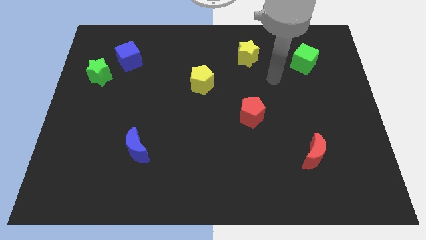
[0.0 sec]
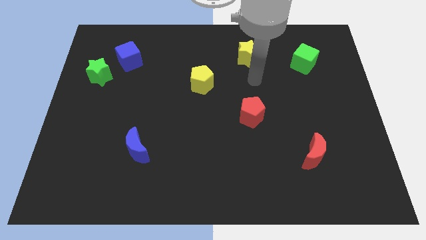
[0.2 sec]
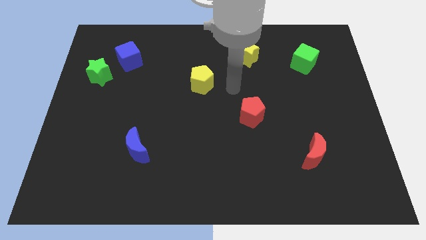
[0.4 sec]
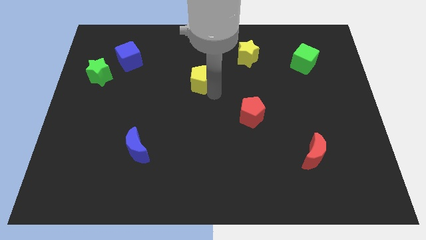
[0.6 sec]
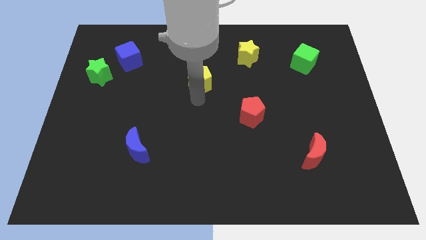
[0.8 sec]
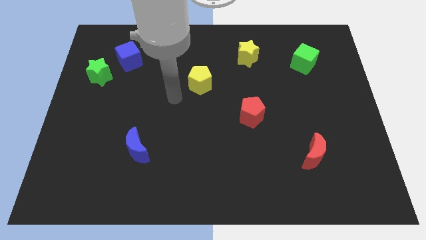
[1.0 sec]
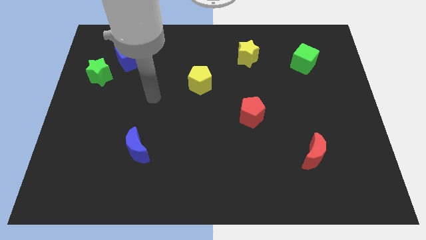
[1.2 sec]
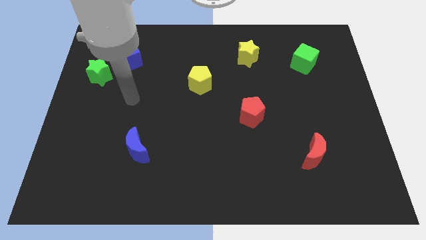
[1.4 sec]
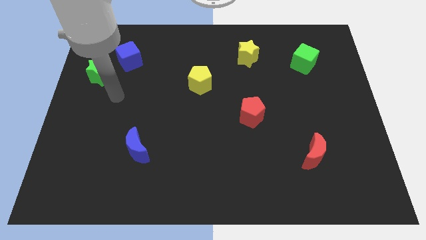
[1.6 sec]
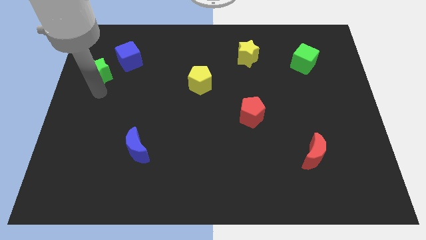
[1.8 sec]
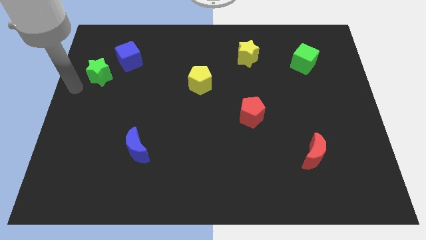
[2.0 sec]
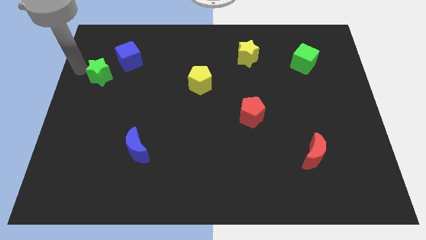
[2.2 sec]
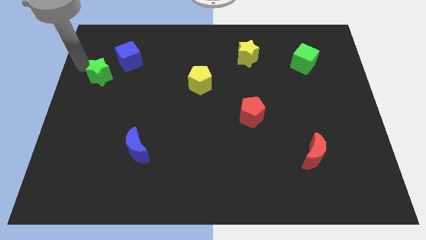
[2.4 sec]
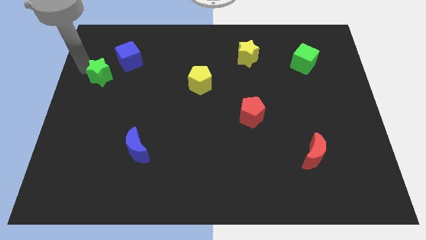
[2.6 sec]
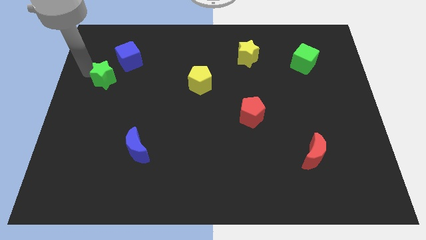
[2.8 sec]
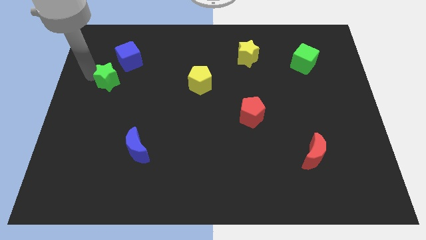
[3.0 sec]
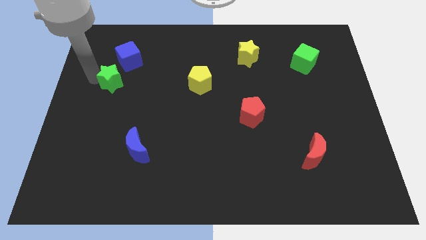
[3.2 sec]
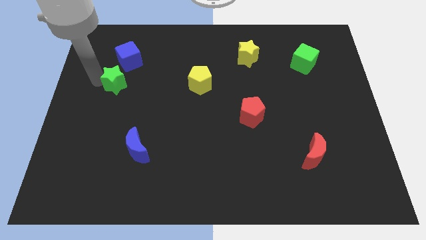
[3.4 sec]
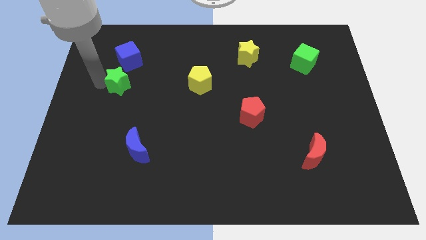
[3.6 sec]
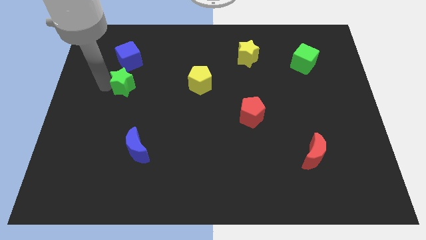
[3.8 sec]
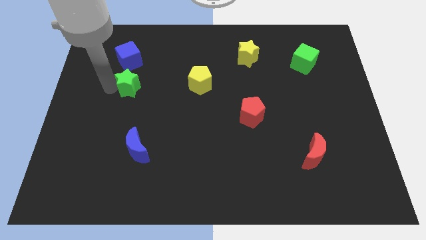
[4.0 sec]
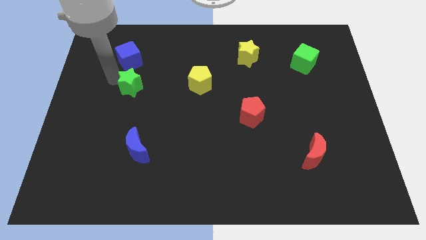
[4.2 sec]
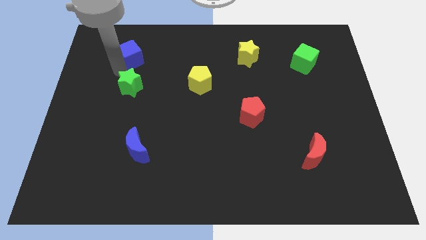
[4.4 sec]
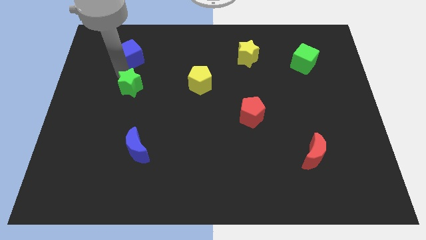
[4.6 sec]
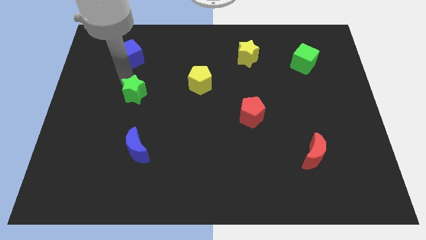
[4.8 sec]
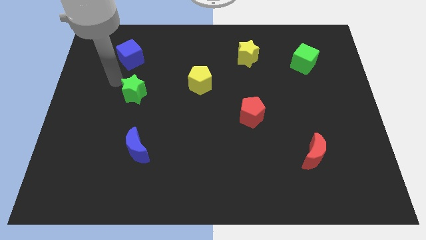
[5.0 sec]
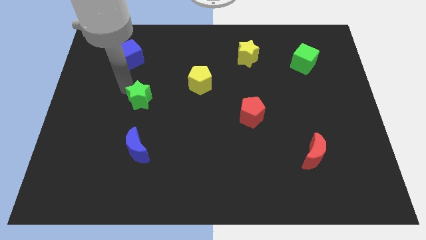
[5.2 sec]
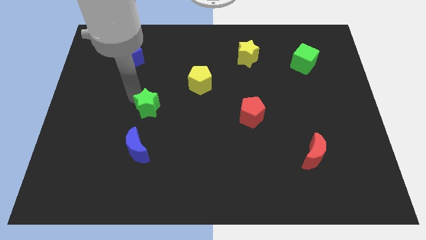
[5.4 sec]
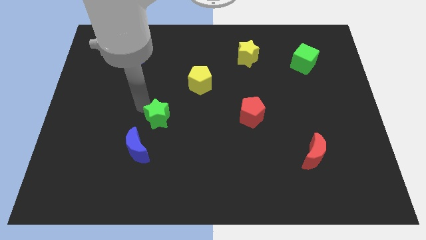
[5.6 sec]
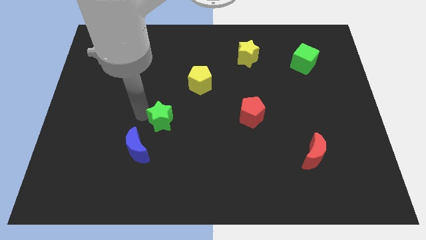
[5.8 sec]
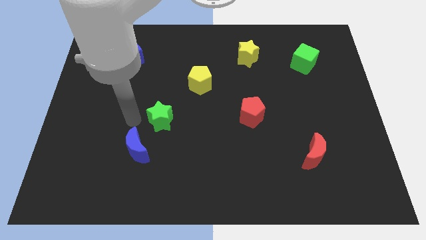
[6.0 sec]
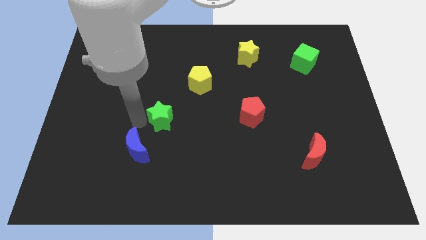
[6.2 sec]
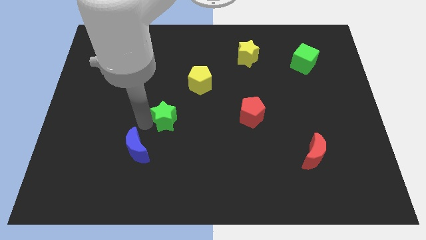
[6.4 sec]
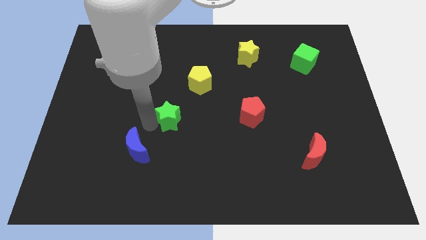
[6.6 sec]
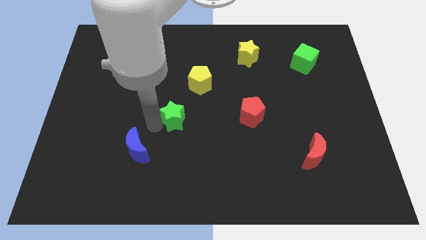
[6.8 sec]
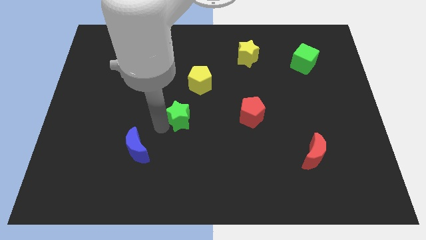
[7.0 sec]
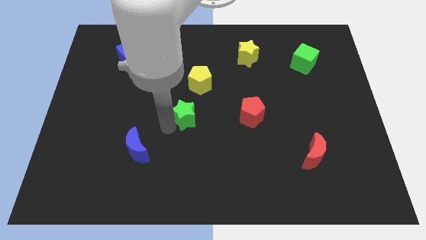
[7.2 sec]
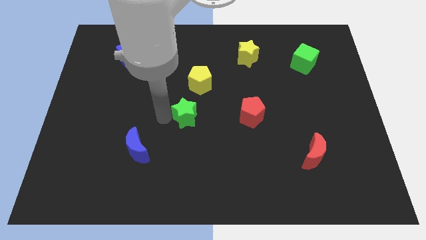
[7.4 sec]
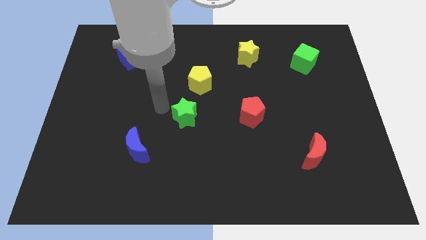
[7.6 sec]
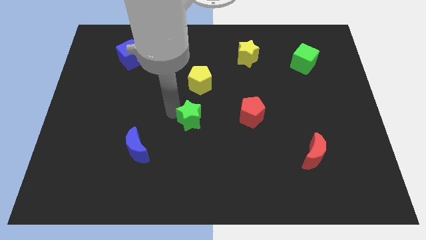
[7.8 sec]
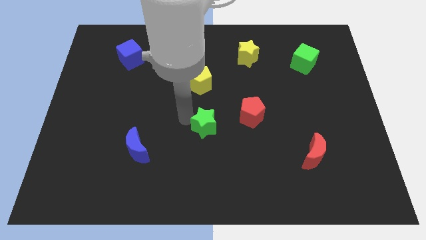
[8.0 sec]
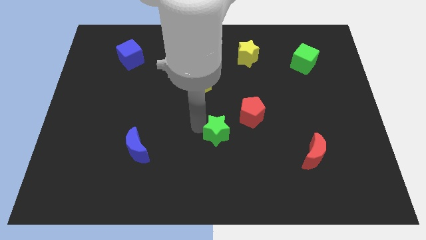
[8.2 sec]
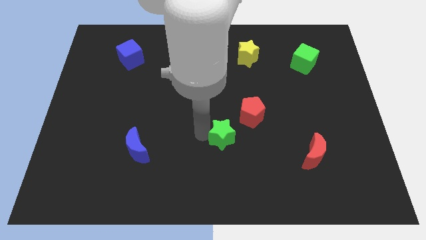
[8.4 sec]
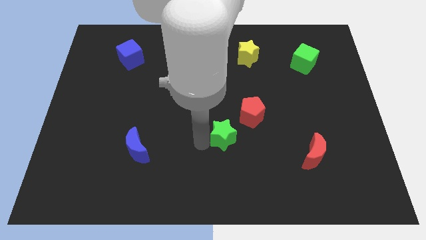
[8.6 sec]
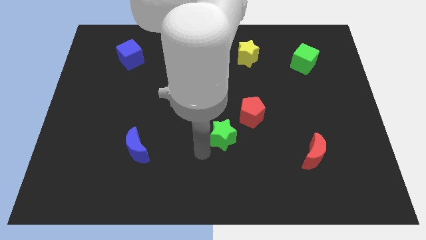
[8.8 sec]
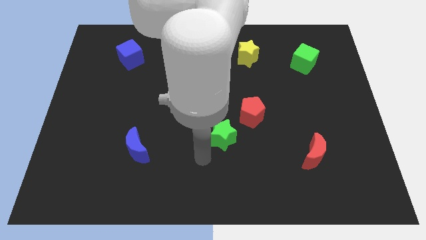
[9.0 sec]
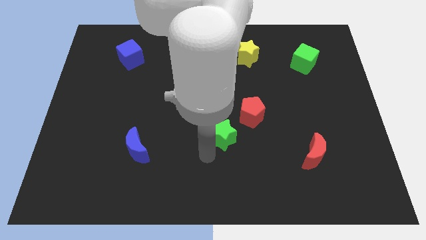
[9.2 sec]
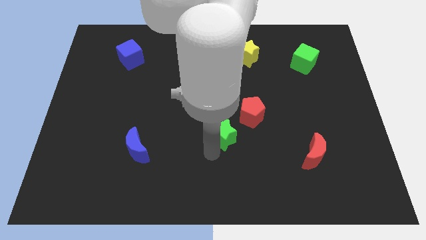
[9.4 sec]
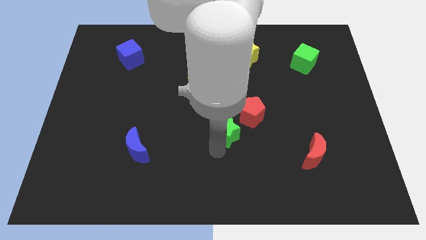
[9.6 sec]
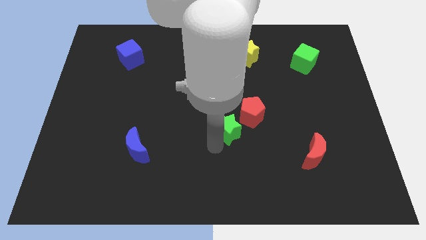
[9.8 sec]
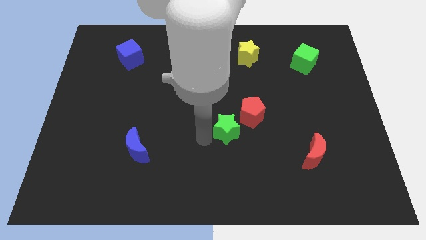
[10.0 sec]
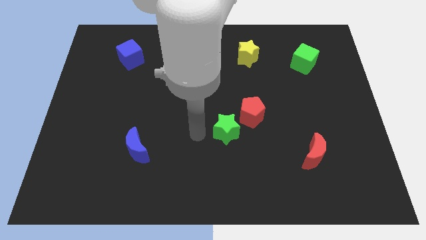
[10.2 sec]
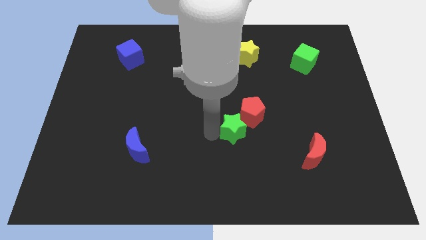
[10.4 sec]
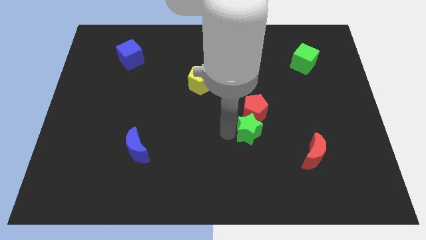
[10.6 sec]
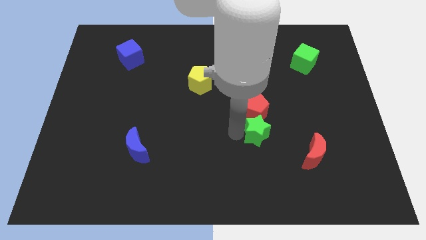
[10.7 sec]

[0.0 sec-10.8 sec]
slide the green star to the bottom right side of the red pentagon

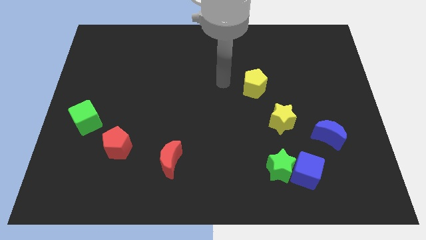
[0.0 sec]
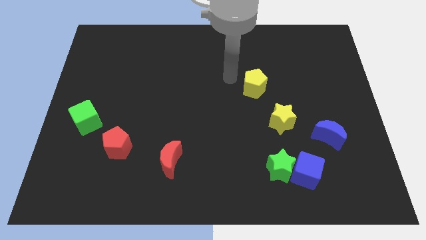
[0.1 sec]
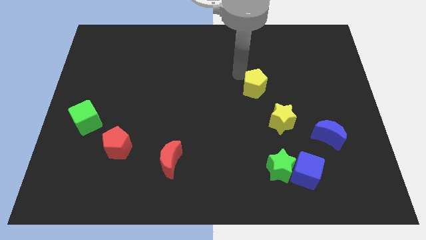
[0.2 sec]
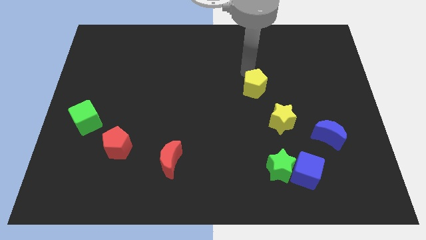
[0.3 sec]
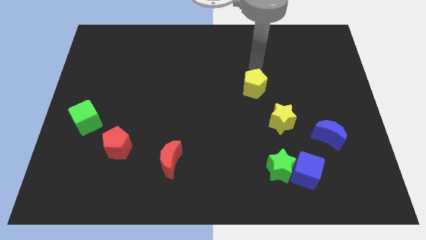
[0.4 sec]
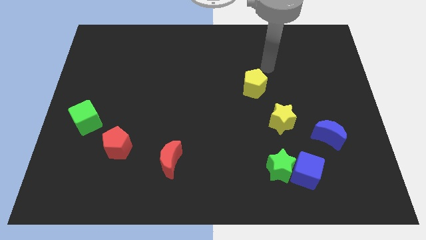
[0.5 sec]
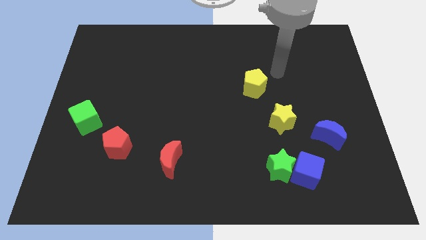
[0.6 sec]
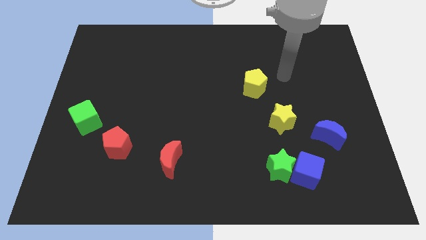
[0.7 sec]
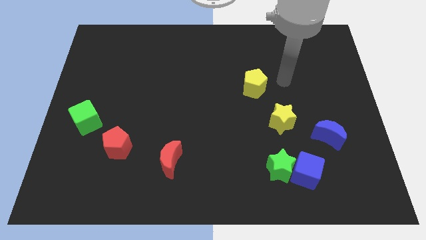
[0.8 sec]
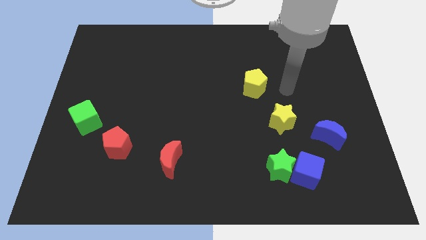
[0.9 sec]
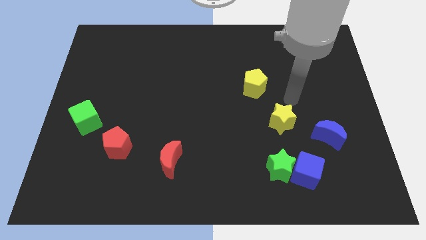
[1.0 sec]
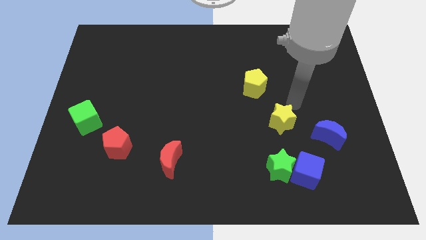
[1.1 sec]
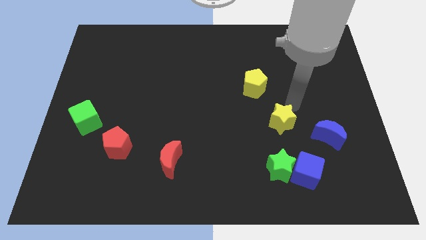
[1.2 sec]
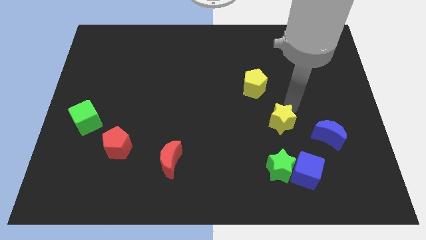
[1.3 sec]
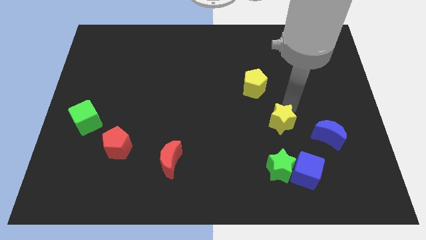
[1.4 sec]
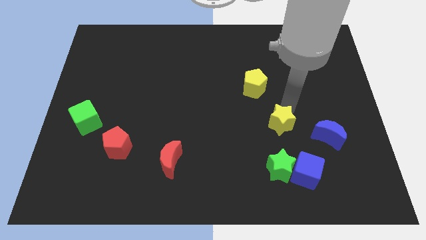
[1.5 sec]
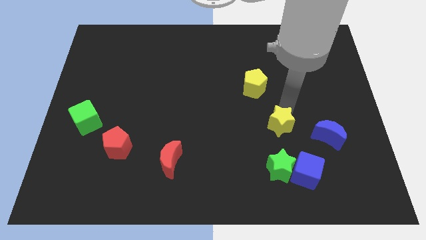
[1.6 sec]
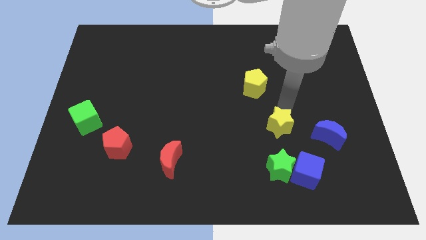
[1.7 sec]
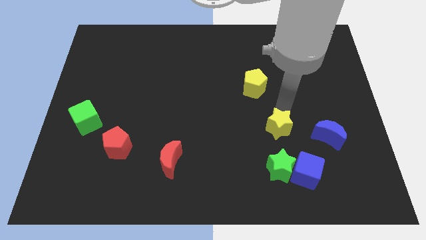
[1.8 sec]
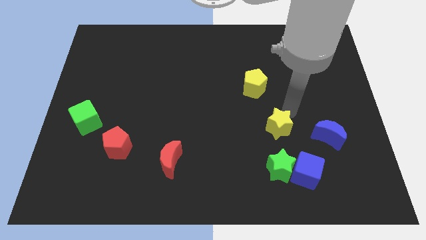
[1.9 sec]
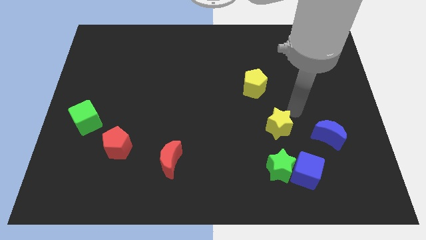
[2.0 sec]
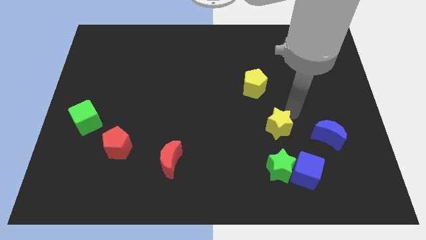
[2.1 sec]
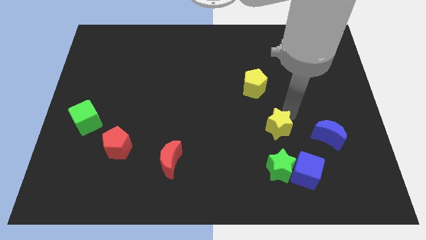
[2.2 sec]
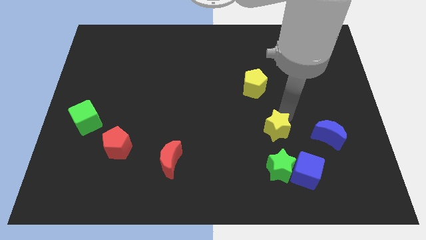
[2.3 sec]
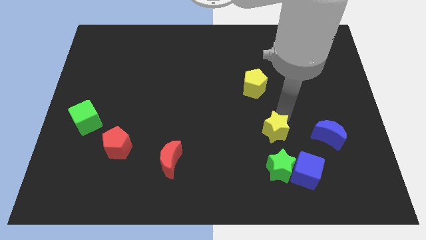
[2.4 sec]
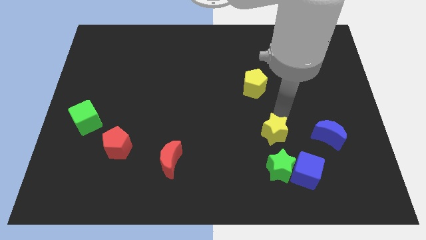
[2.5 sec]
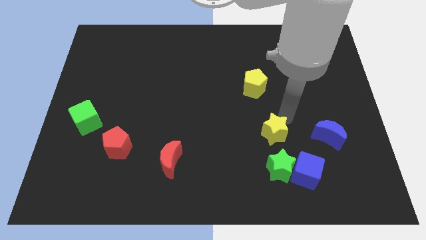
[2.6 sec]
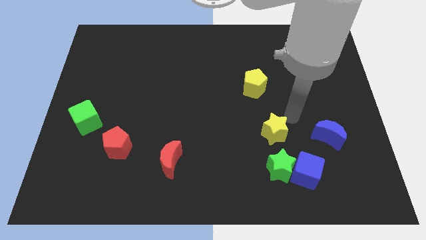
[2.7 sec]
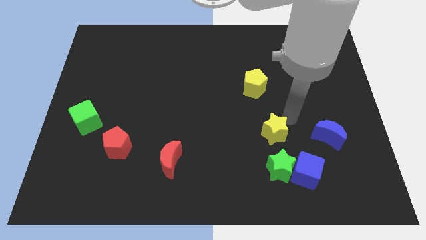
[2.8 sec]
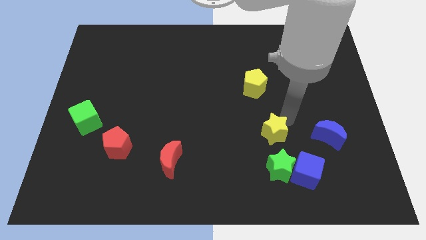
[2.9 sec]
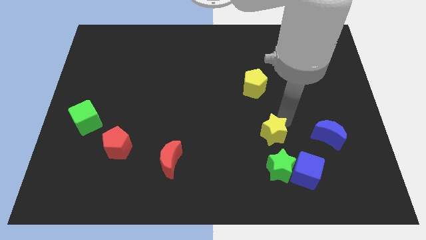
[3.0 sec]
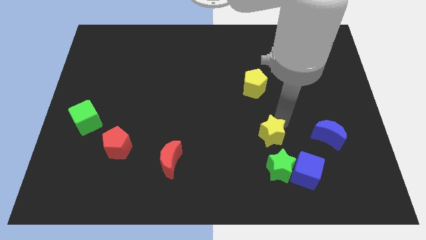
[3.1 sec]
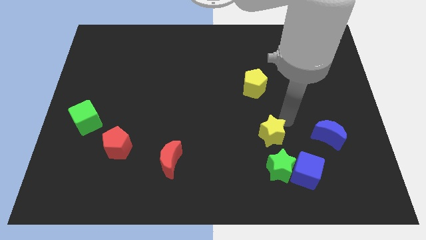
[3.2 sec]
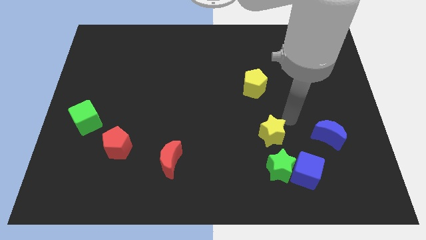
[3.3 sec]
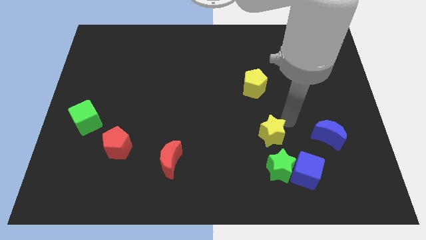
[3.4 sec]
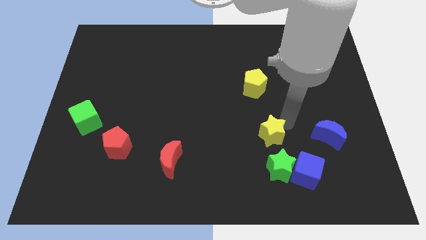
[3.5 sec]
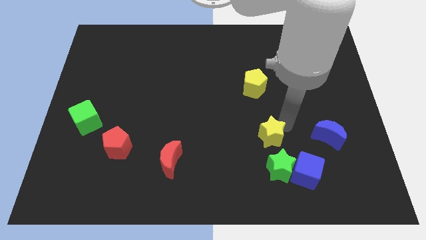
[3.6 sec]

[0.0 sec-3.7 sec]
put the yellow star to the top left side of the green star
